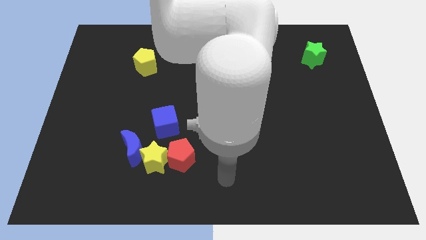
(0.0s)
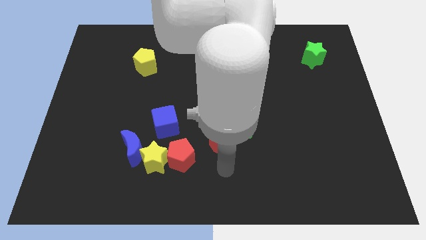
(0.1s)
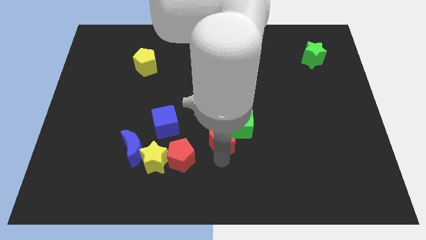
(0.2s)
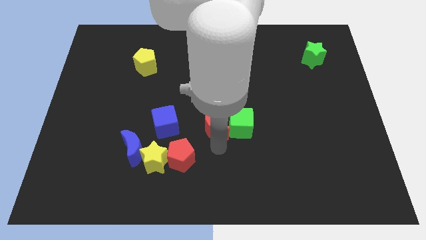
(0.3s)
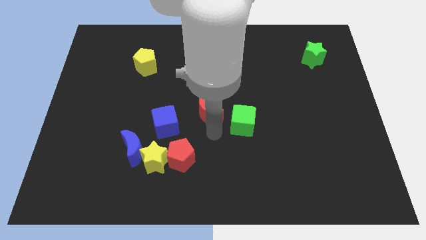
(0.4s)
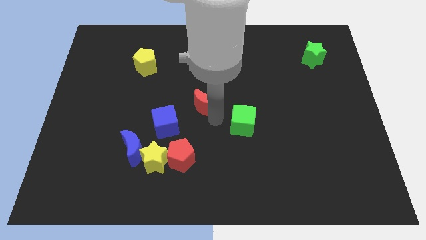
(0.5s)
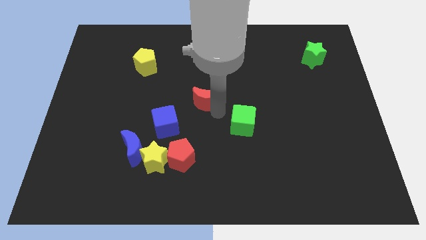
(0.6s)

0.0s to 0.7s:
move the green cube away from the red moon

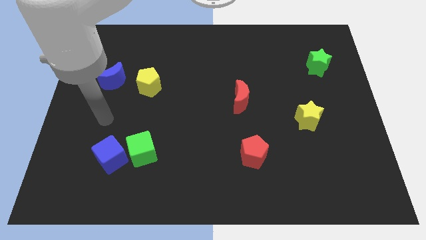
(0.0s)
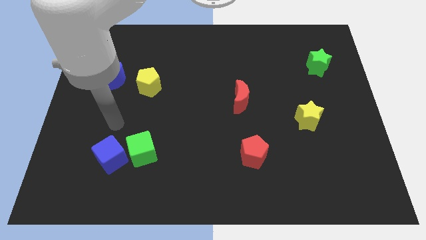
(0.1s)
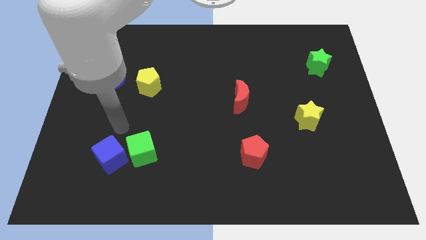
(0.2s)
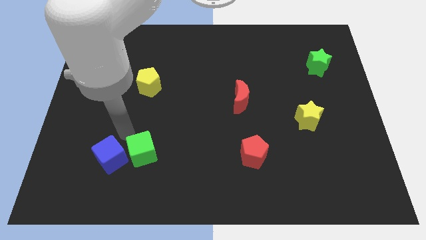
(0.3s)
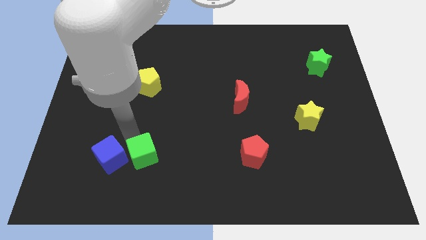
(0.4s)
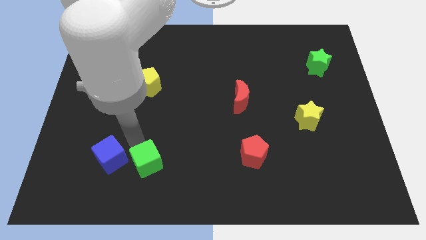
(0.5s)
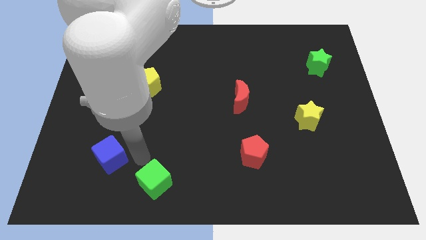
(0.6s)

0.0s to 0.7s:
move the blue cube away from the green cube

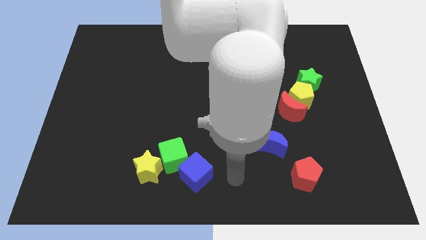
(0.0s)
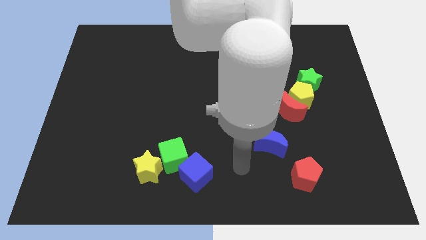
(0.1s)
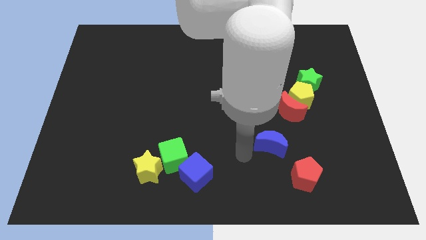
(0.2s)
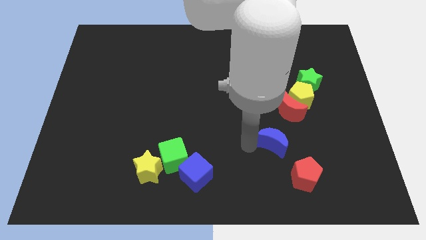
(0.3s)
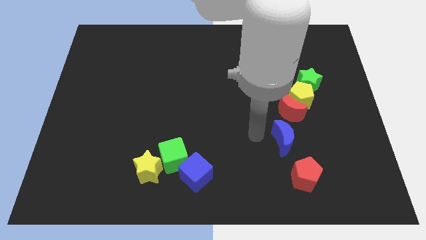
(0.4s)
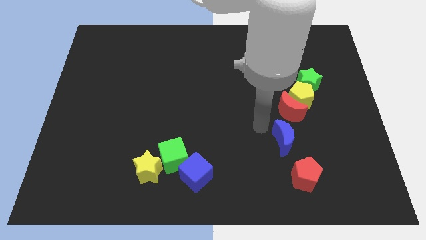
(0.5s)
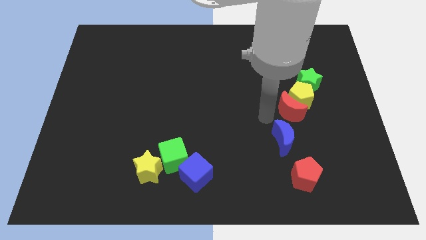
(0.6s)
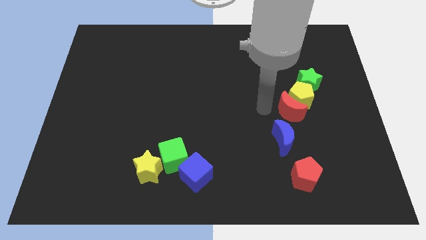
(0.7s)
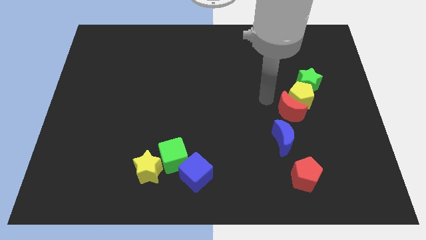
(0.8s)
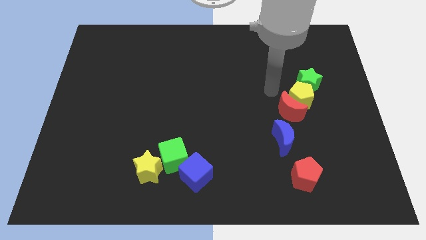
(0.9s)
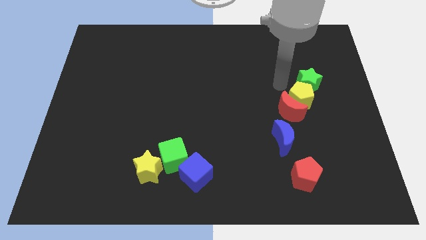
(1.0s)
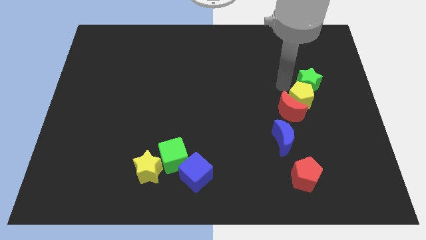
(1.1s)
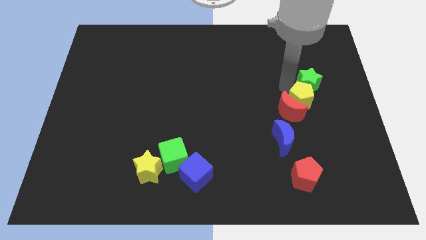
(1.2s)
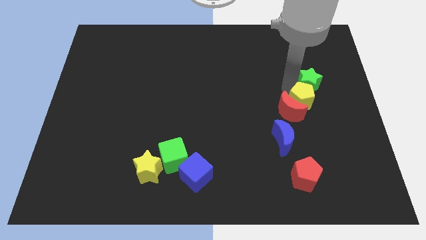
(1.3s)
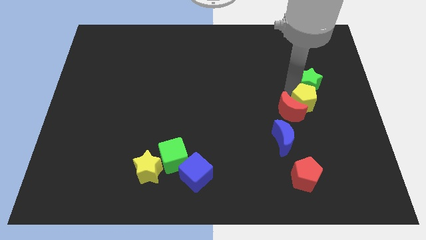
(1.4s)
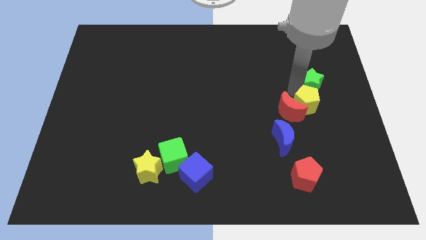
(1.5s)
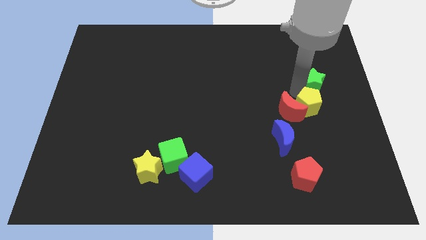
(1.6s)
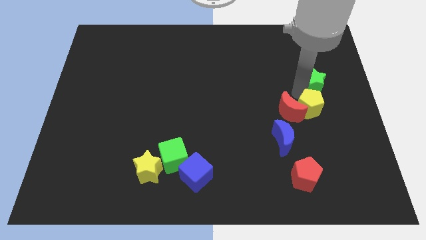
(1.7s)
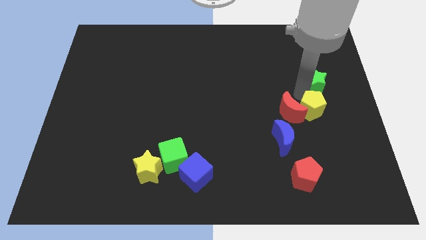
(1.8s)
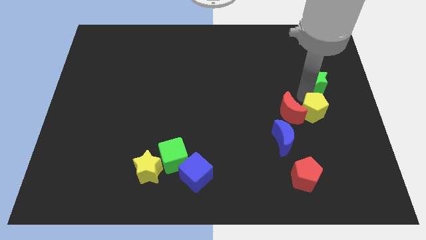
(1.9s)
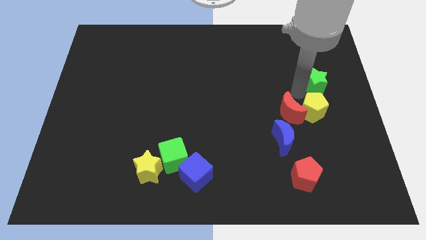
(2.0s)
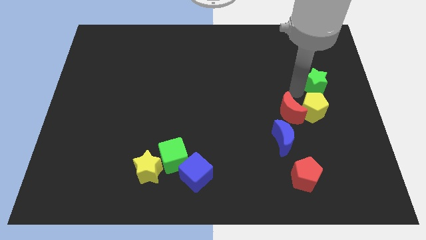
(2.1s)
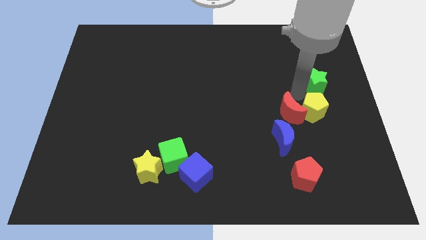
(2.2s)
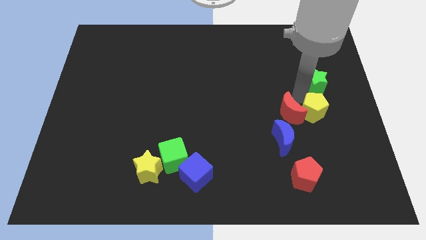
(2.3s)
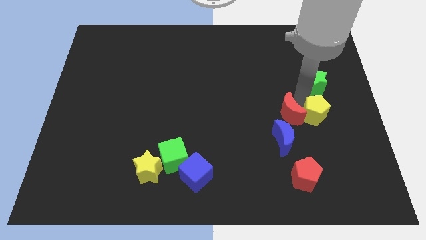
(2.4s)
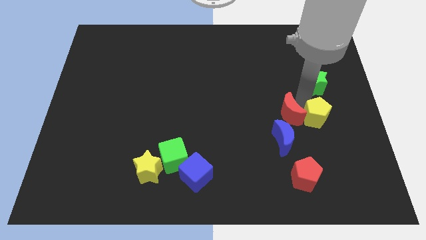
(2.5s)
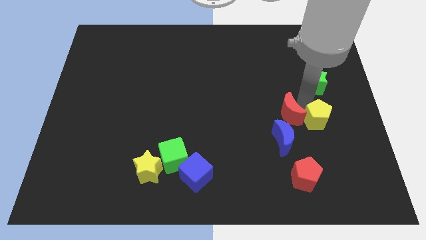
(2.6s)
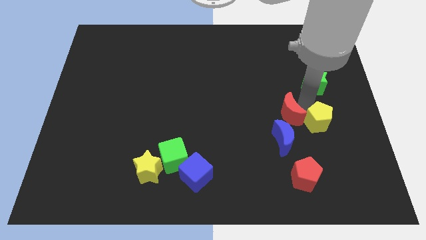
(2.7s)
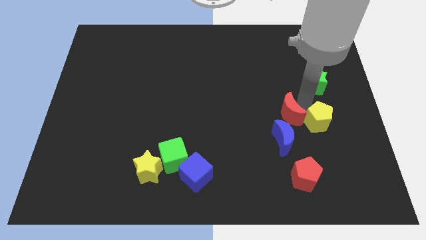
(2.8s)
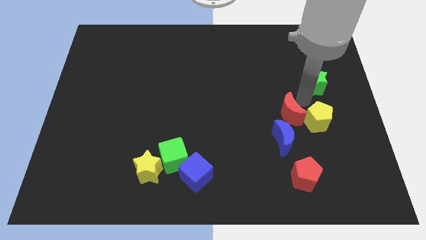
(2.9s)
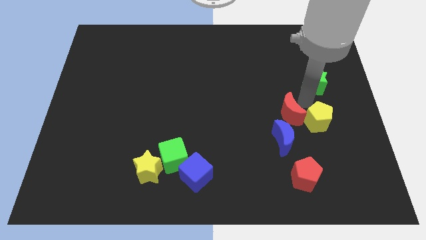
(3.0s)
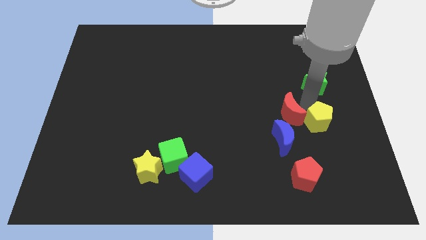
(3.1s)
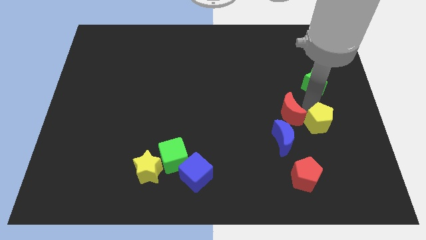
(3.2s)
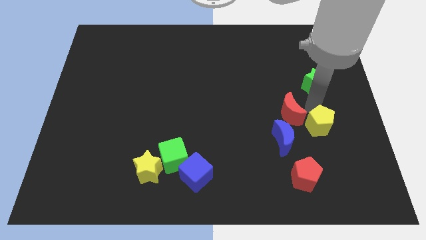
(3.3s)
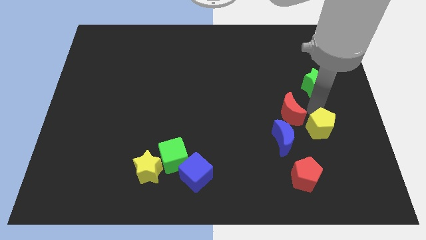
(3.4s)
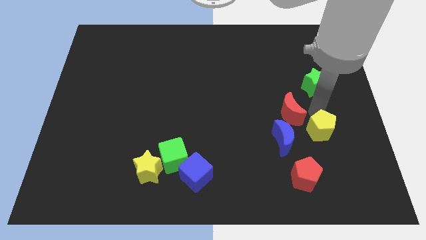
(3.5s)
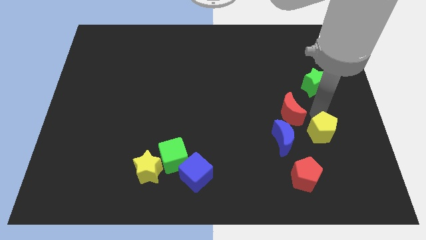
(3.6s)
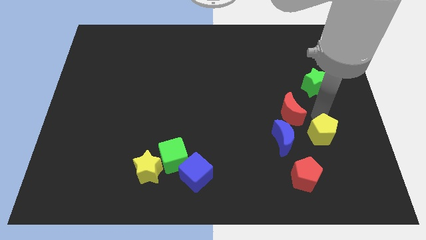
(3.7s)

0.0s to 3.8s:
move the yellow pentagon away from the red moon and green star

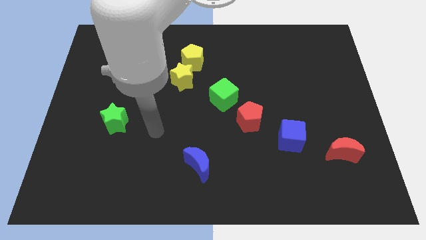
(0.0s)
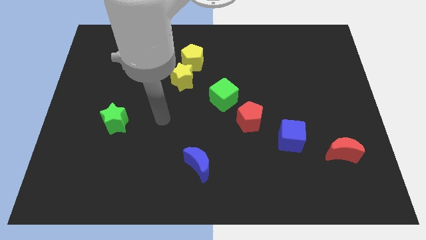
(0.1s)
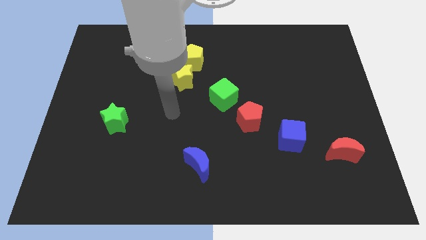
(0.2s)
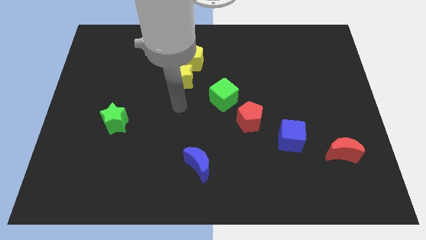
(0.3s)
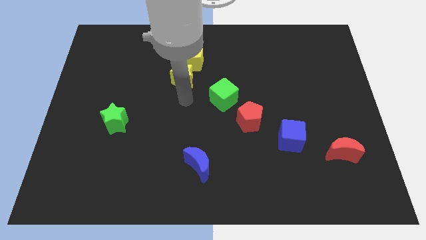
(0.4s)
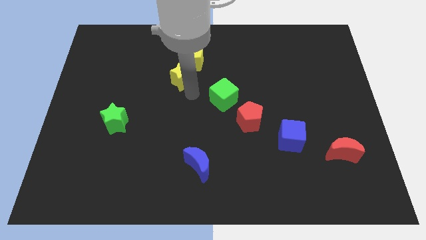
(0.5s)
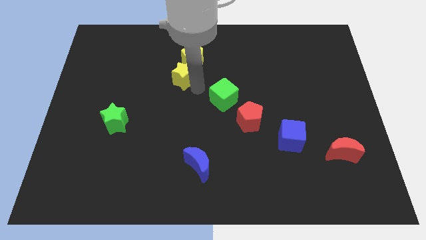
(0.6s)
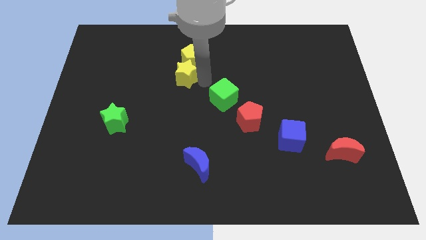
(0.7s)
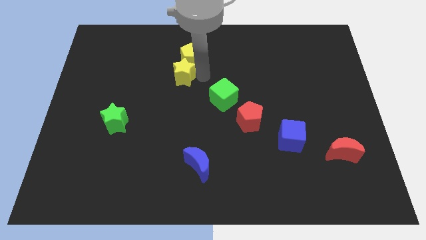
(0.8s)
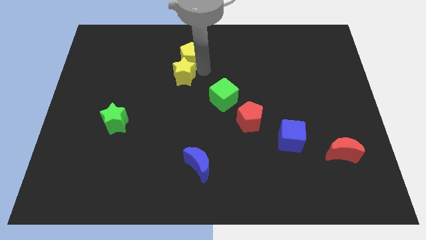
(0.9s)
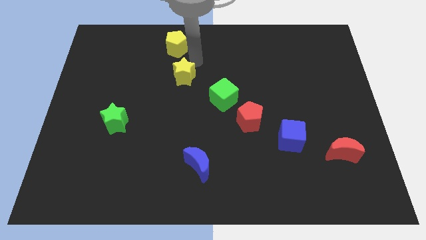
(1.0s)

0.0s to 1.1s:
separate the yellow star from the yellow pentagon

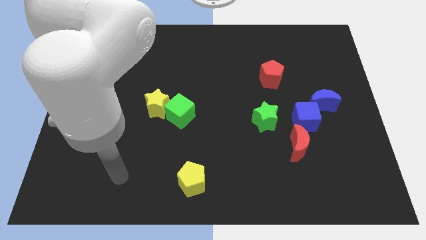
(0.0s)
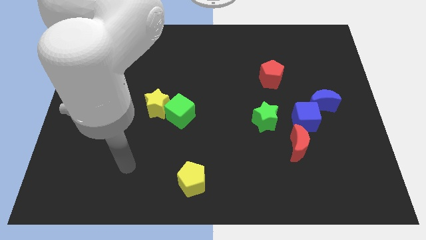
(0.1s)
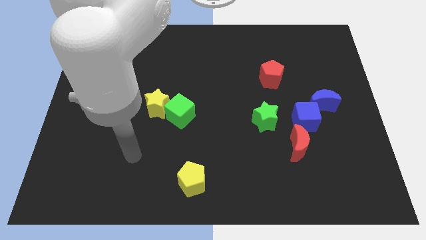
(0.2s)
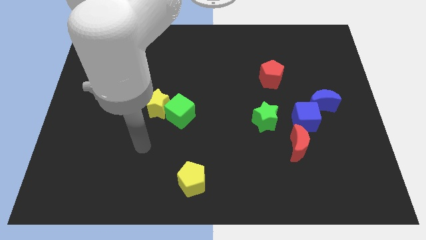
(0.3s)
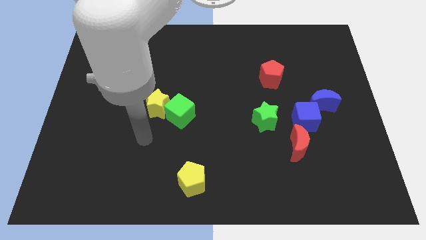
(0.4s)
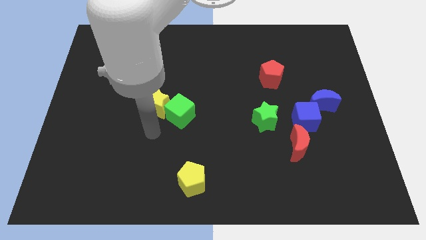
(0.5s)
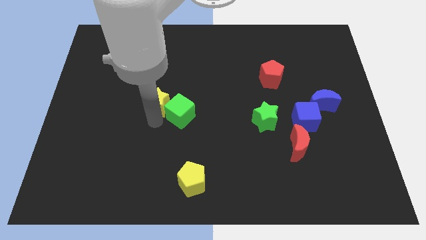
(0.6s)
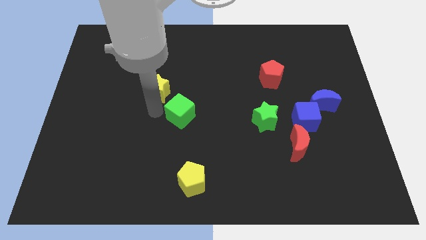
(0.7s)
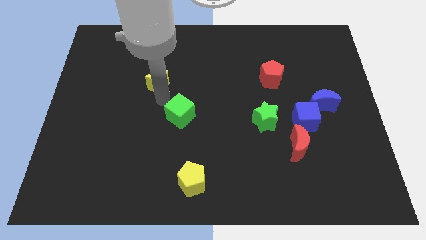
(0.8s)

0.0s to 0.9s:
move the green cube away from the yellow star

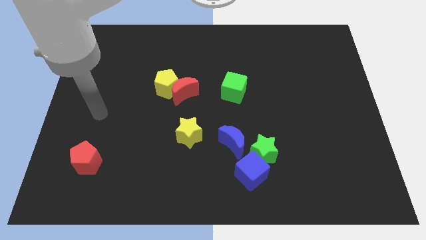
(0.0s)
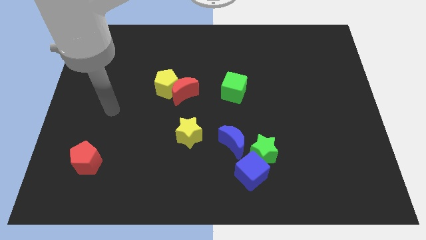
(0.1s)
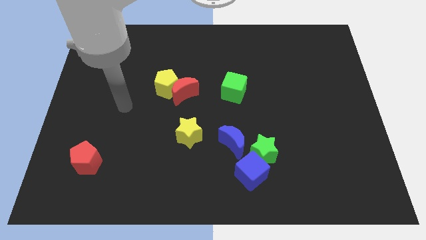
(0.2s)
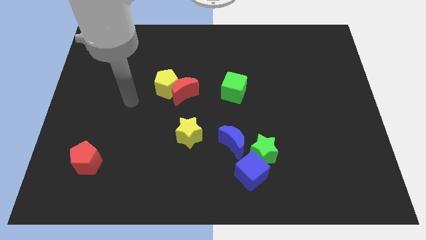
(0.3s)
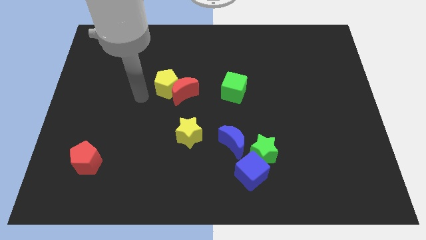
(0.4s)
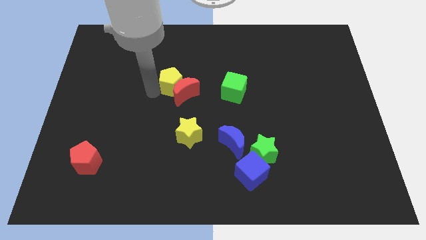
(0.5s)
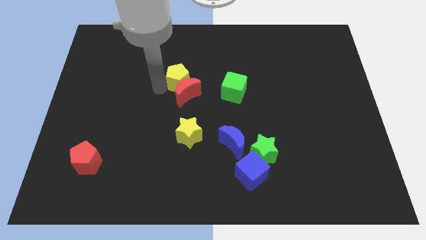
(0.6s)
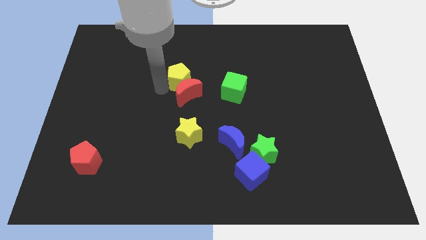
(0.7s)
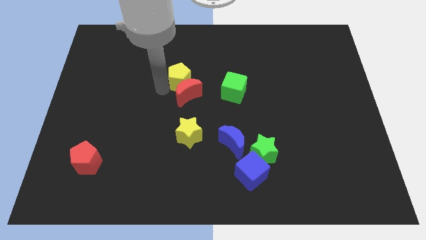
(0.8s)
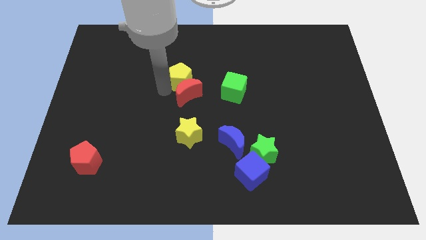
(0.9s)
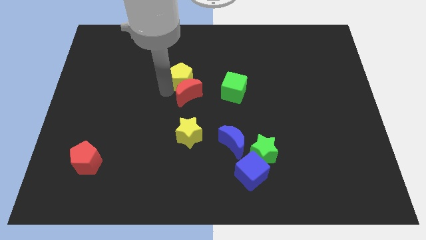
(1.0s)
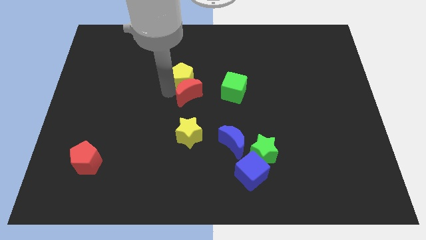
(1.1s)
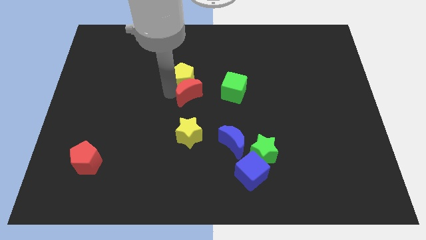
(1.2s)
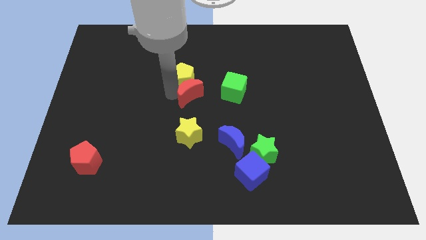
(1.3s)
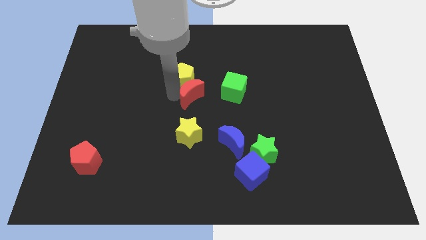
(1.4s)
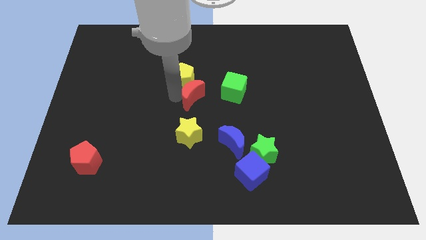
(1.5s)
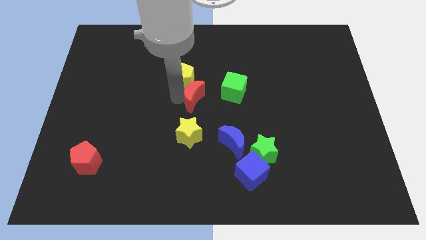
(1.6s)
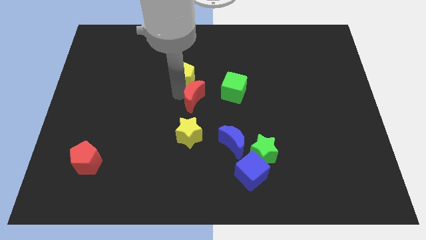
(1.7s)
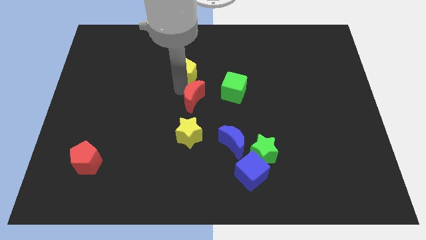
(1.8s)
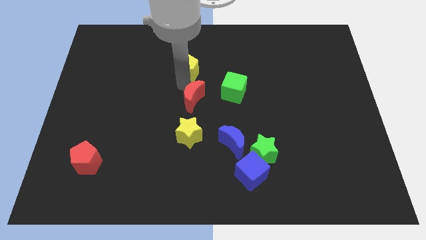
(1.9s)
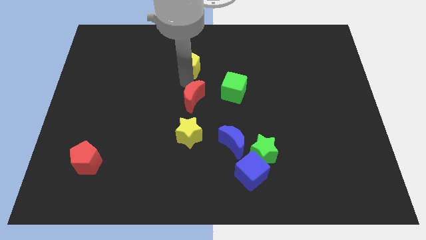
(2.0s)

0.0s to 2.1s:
move the red moon away from the yellow pentagon

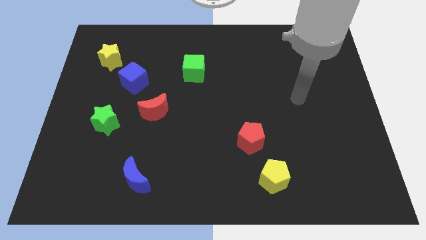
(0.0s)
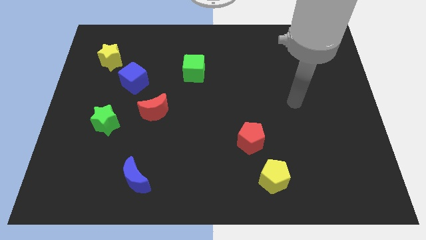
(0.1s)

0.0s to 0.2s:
separate the red pentagon from the yellow pentagon
